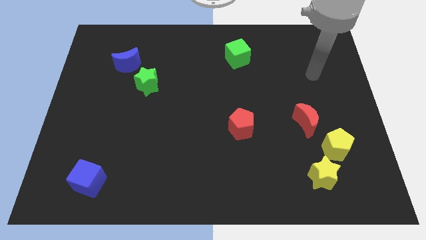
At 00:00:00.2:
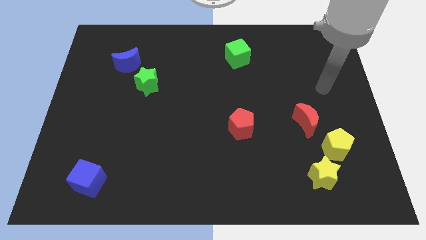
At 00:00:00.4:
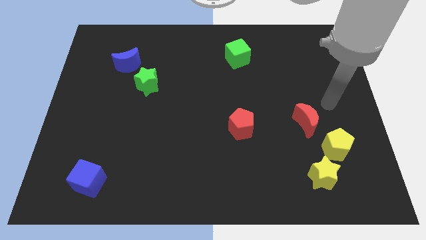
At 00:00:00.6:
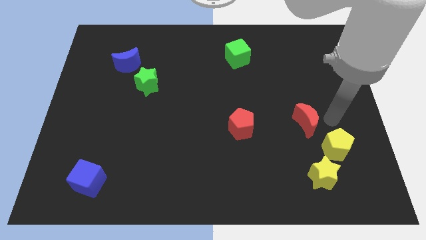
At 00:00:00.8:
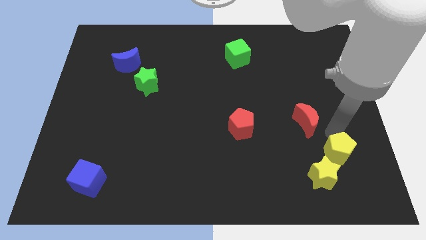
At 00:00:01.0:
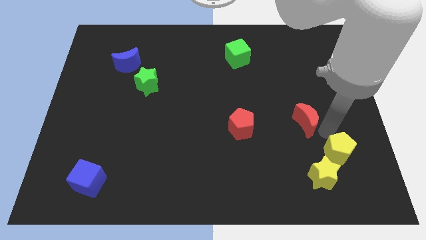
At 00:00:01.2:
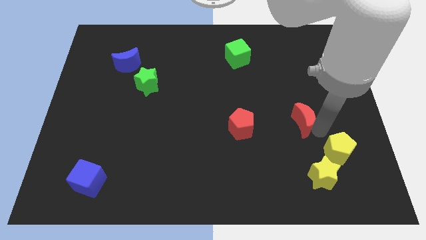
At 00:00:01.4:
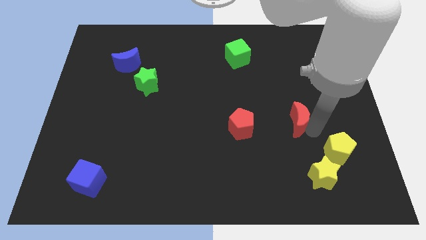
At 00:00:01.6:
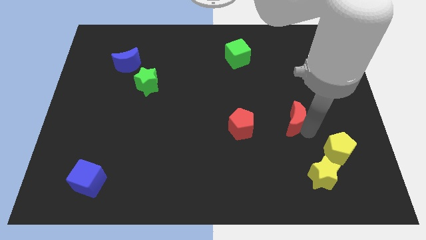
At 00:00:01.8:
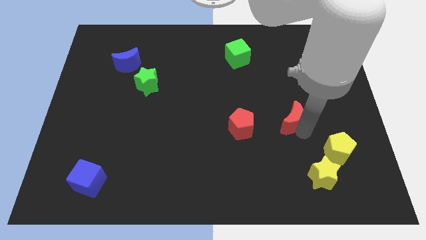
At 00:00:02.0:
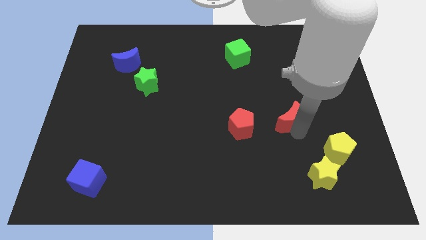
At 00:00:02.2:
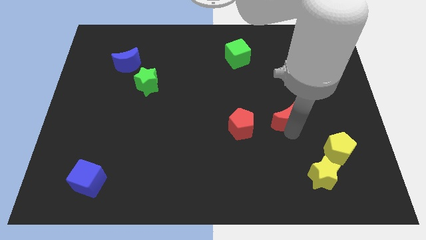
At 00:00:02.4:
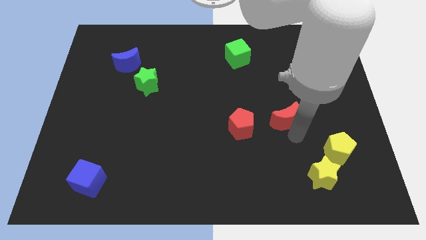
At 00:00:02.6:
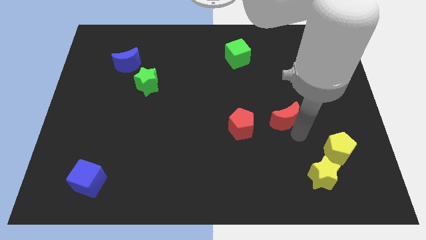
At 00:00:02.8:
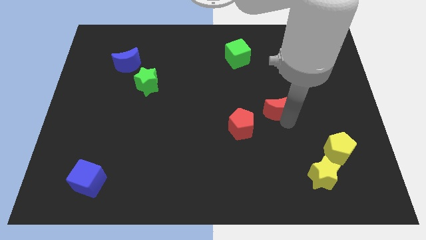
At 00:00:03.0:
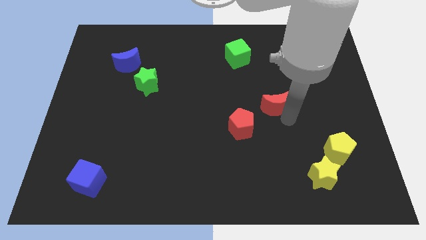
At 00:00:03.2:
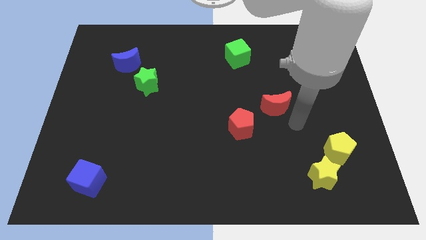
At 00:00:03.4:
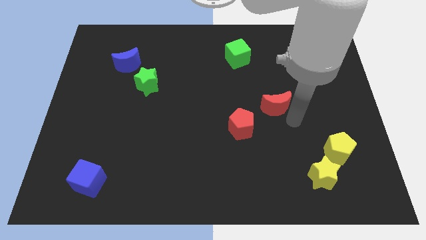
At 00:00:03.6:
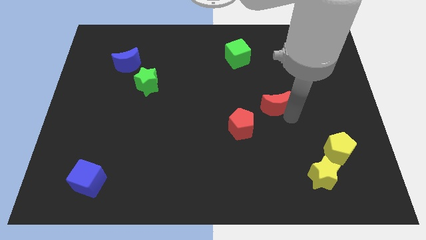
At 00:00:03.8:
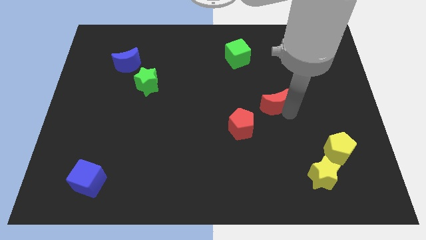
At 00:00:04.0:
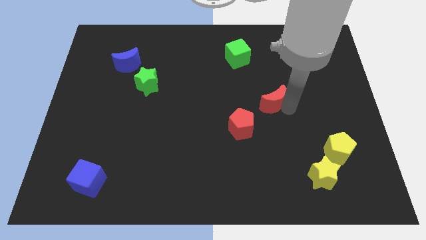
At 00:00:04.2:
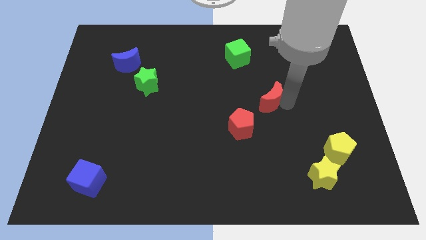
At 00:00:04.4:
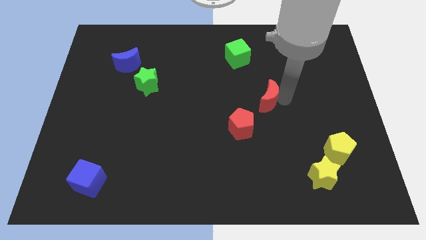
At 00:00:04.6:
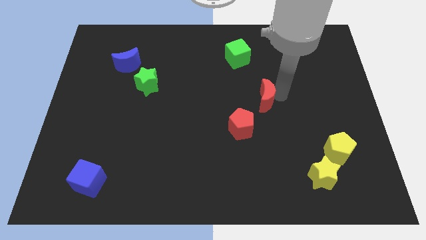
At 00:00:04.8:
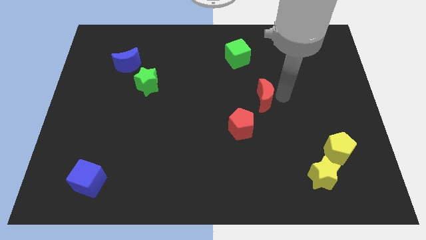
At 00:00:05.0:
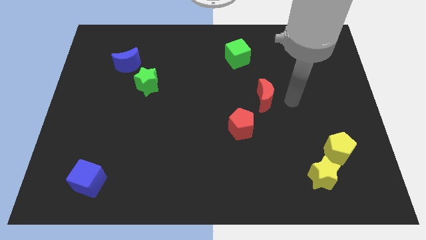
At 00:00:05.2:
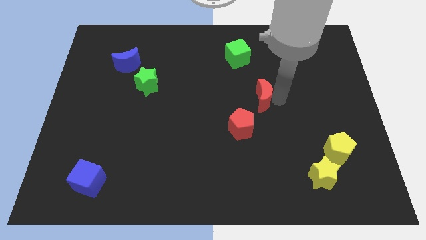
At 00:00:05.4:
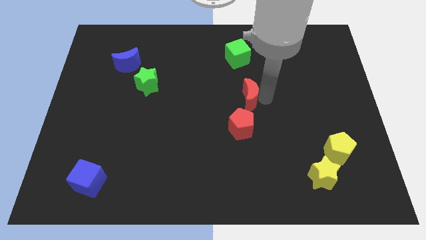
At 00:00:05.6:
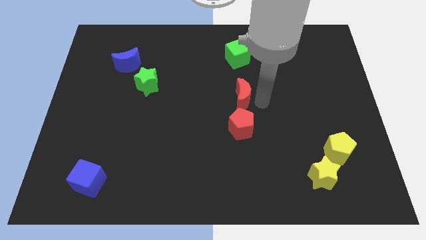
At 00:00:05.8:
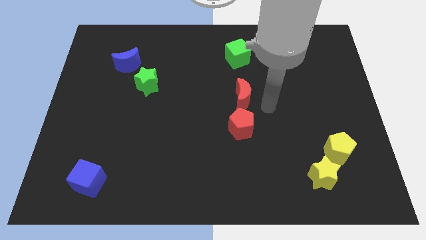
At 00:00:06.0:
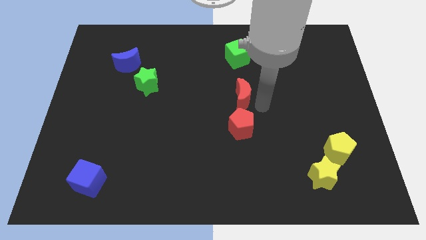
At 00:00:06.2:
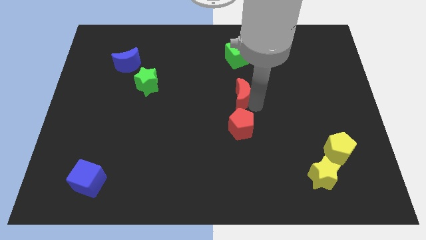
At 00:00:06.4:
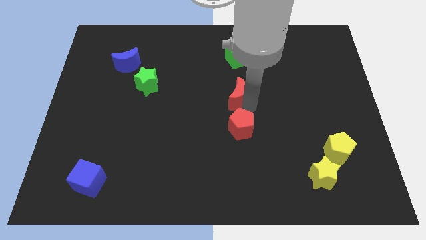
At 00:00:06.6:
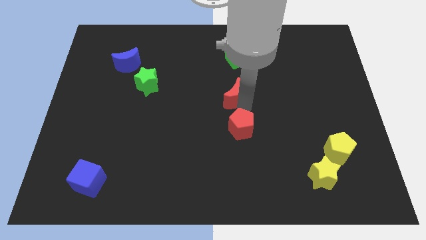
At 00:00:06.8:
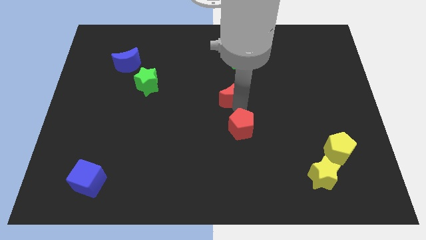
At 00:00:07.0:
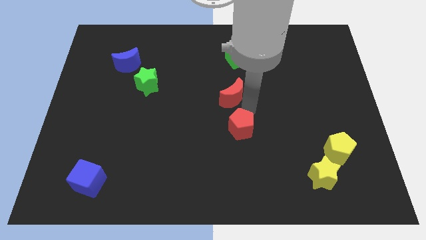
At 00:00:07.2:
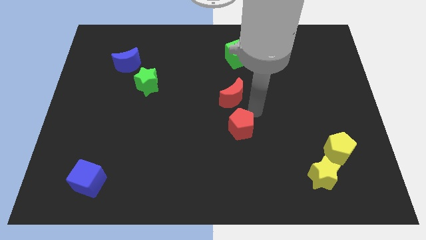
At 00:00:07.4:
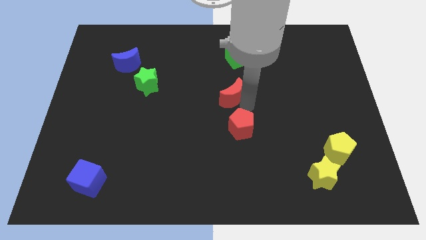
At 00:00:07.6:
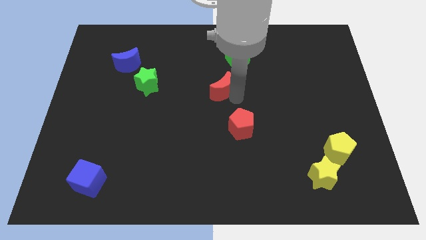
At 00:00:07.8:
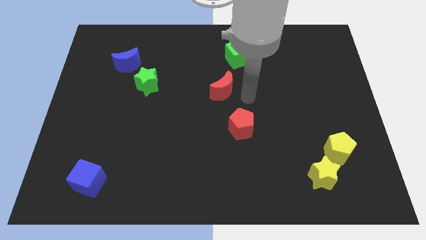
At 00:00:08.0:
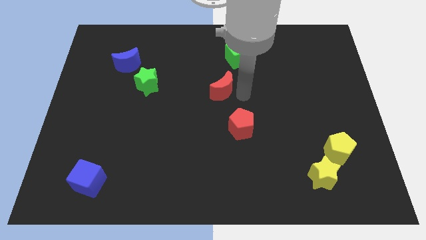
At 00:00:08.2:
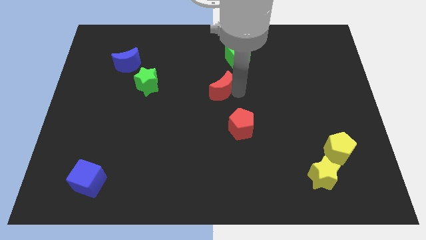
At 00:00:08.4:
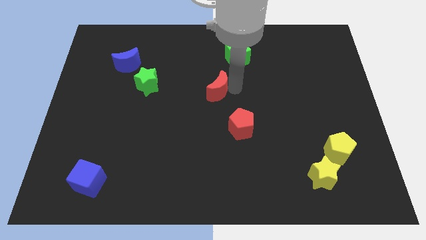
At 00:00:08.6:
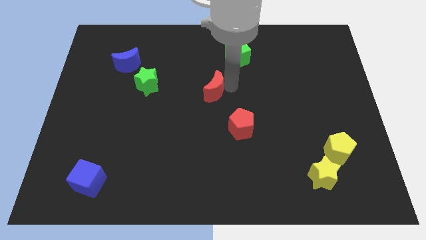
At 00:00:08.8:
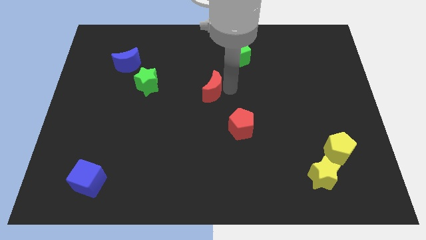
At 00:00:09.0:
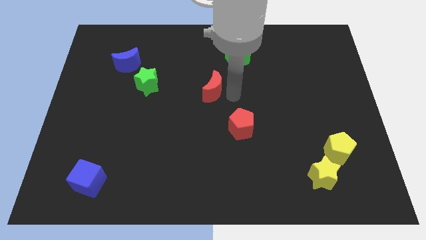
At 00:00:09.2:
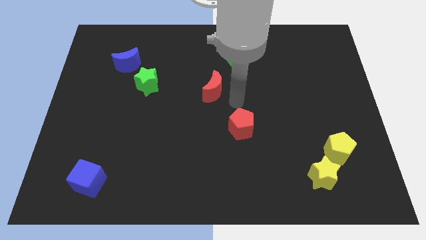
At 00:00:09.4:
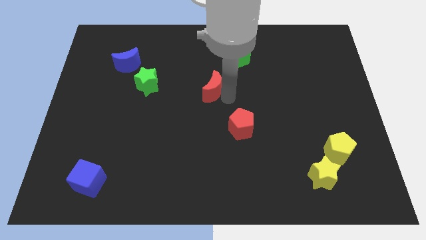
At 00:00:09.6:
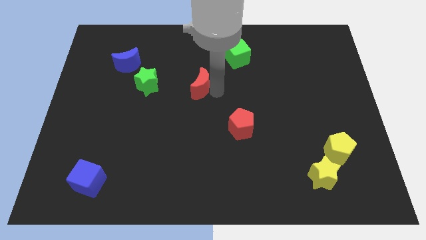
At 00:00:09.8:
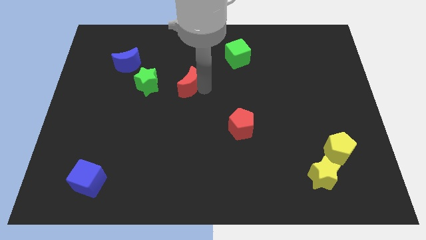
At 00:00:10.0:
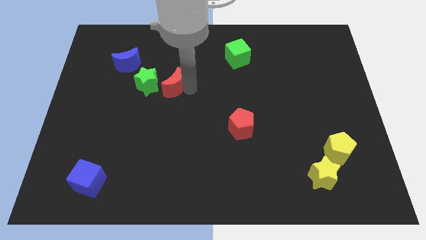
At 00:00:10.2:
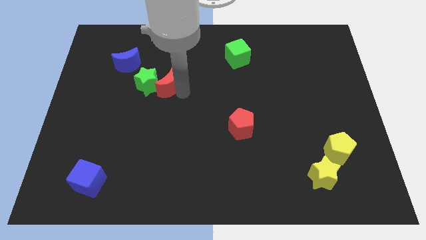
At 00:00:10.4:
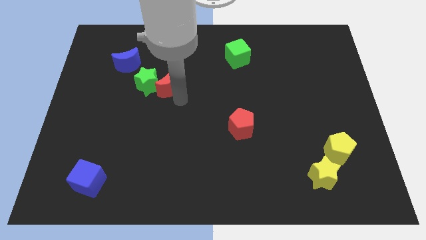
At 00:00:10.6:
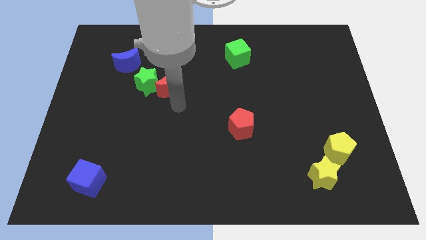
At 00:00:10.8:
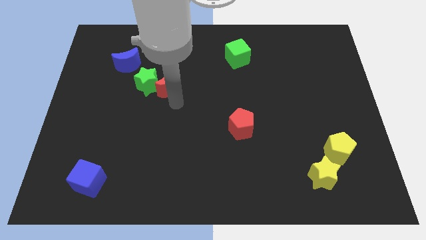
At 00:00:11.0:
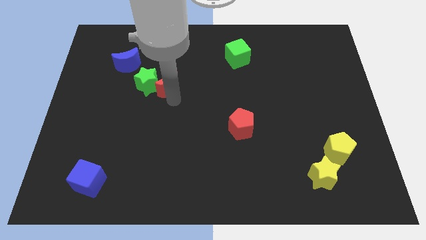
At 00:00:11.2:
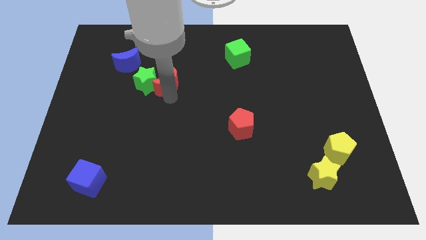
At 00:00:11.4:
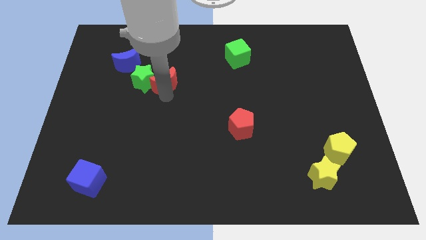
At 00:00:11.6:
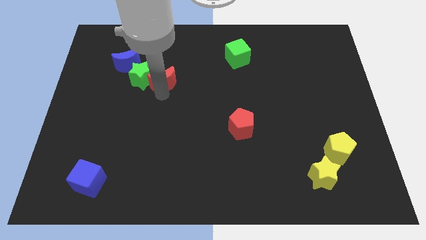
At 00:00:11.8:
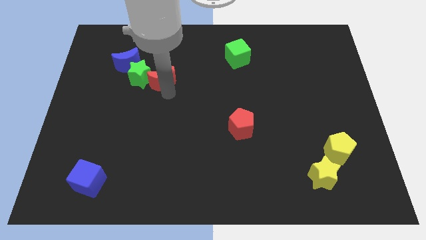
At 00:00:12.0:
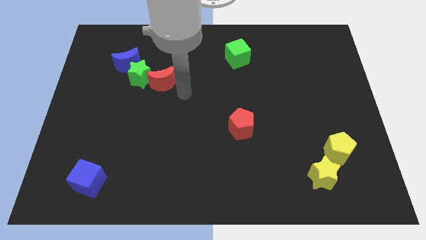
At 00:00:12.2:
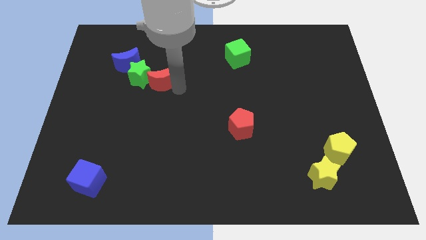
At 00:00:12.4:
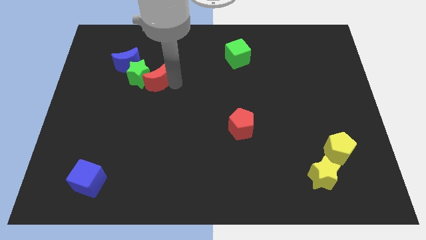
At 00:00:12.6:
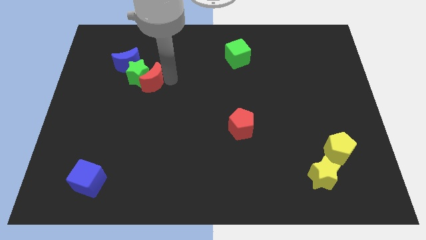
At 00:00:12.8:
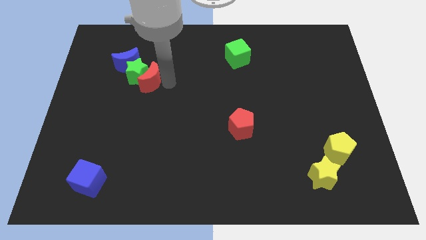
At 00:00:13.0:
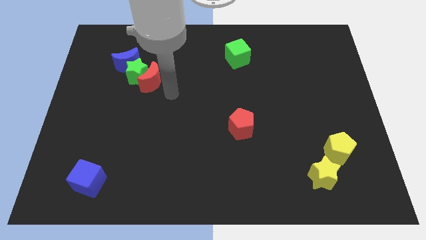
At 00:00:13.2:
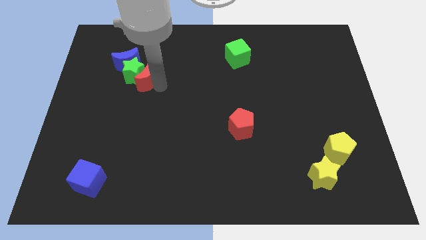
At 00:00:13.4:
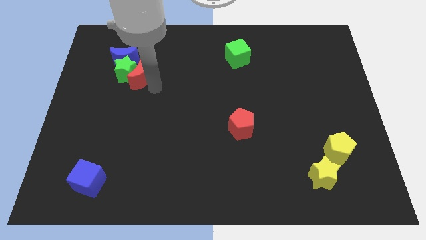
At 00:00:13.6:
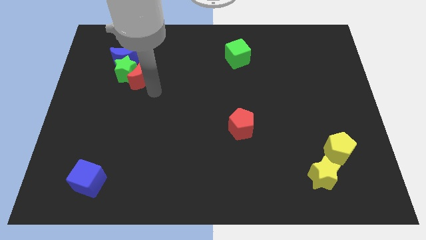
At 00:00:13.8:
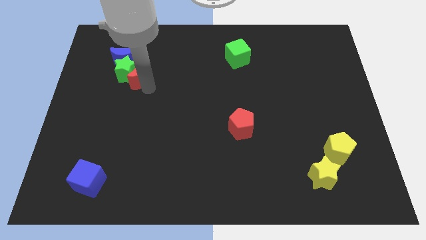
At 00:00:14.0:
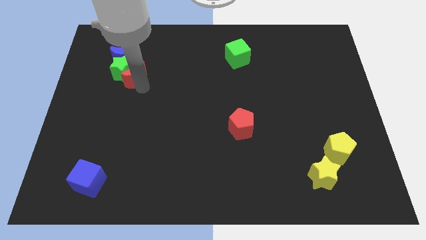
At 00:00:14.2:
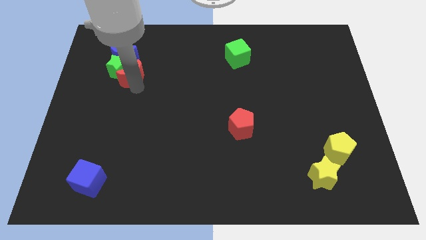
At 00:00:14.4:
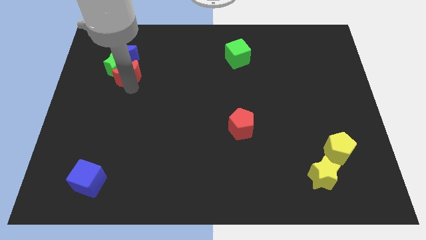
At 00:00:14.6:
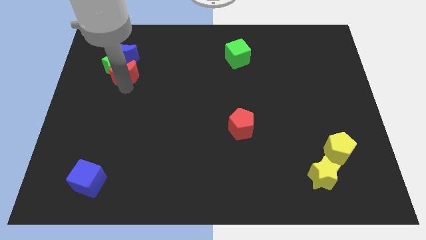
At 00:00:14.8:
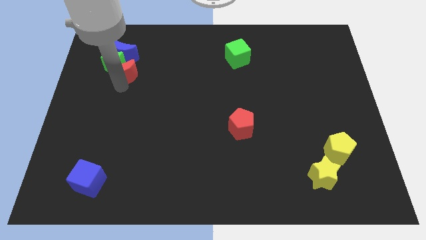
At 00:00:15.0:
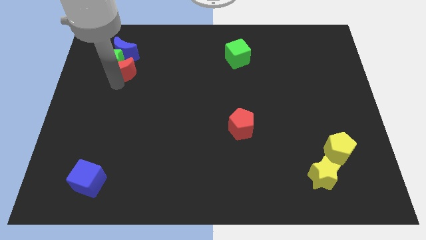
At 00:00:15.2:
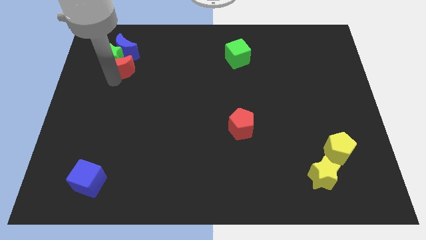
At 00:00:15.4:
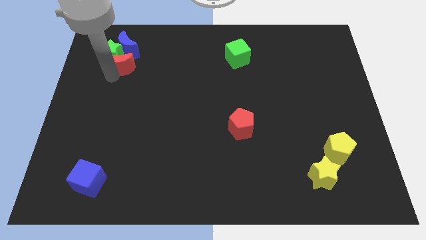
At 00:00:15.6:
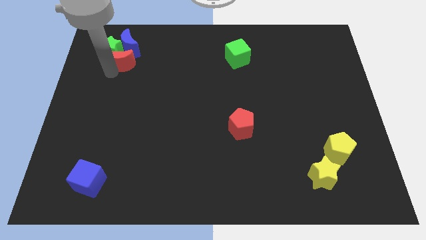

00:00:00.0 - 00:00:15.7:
move the red moon next to the blue moon
